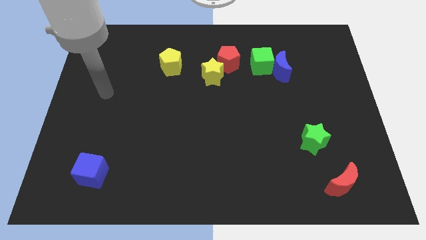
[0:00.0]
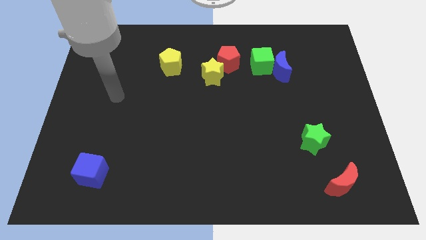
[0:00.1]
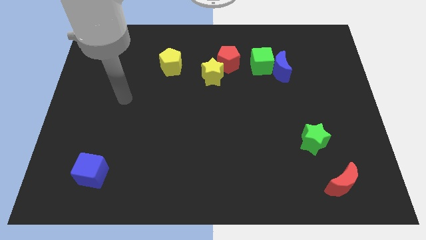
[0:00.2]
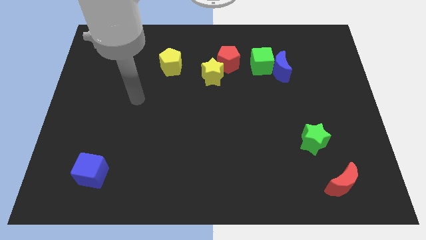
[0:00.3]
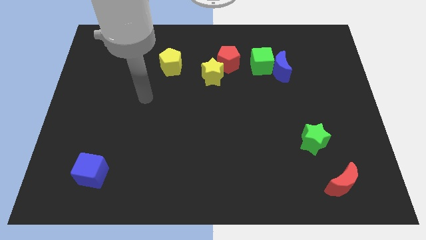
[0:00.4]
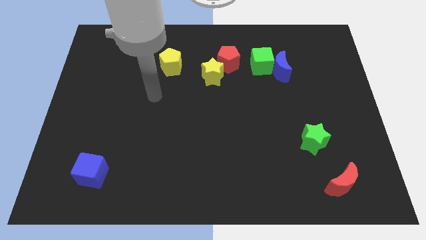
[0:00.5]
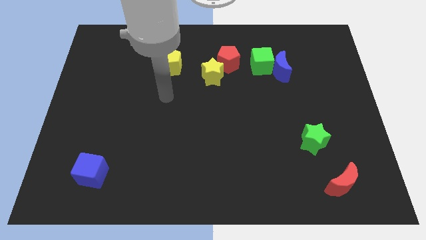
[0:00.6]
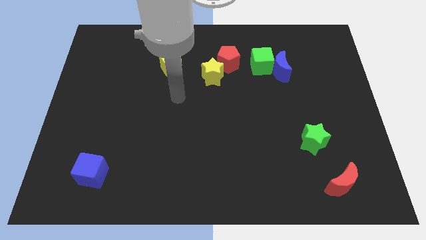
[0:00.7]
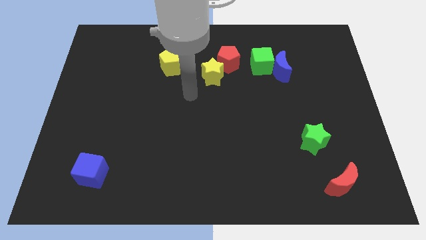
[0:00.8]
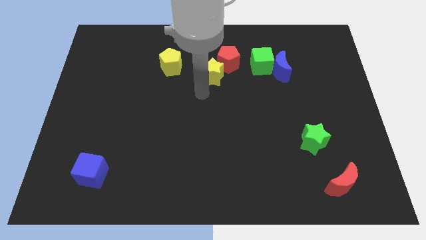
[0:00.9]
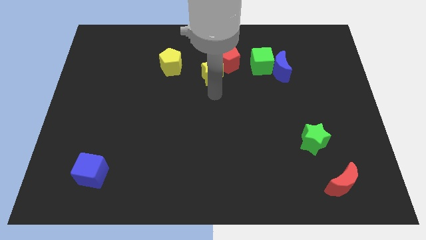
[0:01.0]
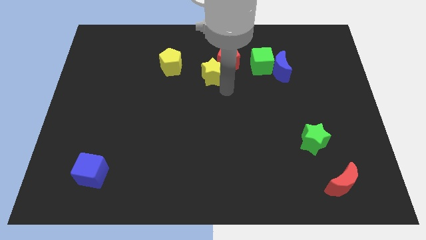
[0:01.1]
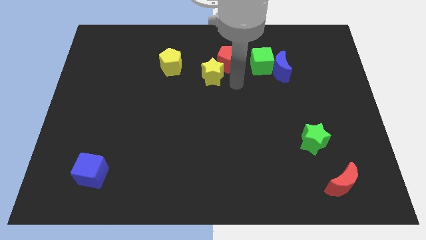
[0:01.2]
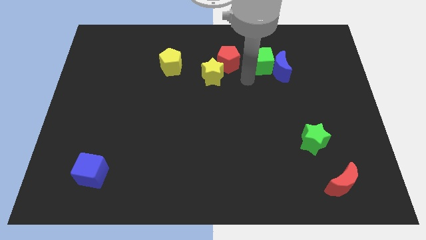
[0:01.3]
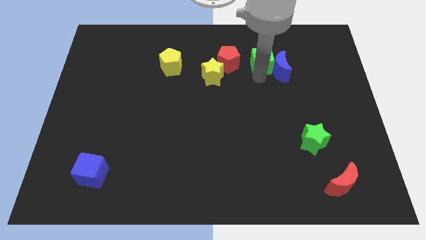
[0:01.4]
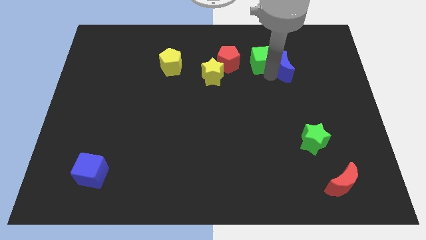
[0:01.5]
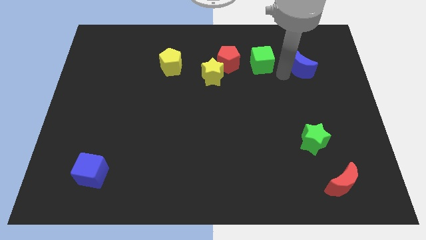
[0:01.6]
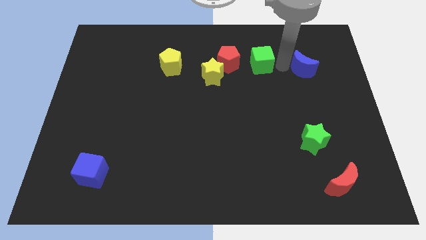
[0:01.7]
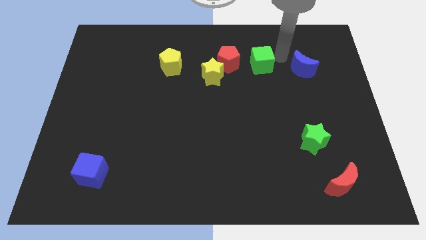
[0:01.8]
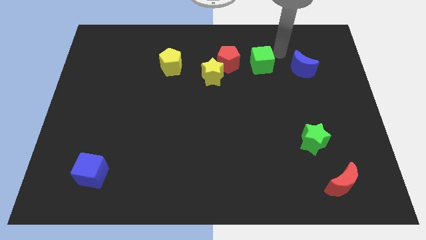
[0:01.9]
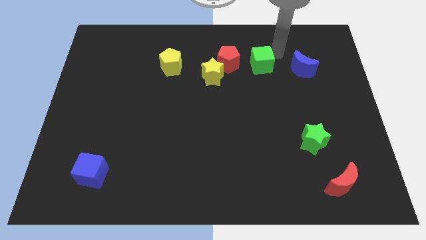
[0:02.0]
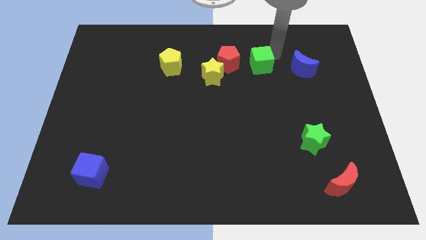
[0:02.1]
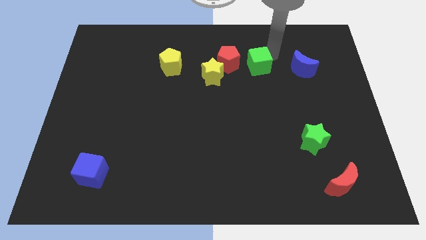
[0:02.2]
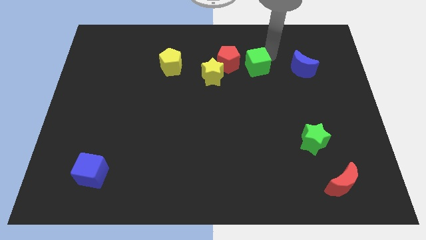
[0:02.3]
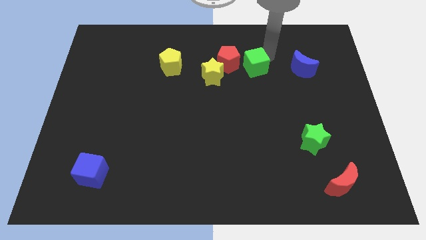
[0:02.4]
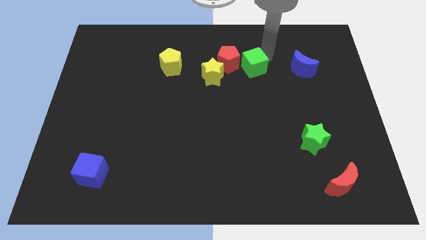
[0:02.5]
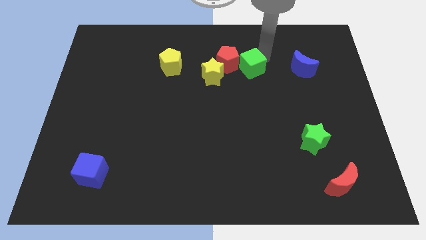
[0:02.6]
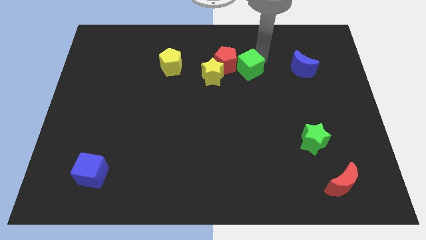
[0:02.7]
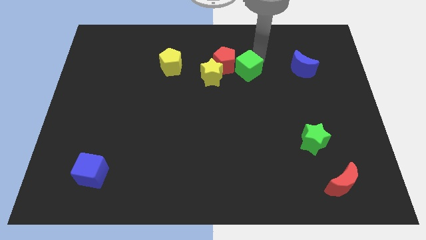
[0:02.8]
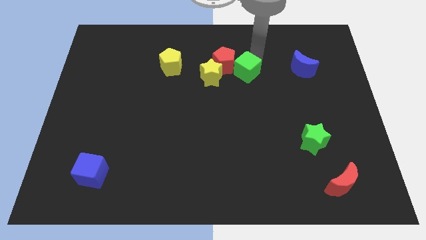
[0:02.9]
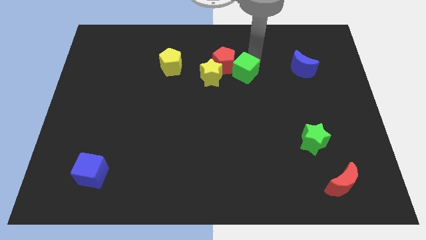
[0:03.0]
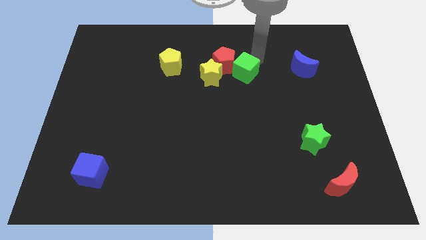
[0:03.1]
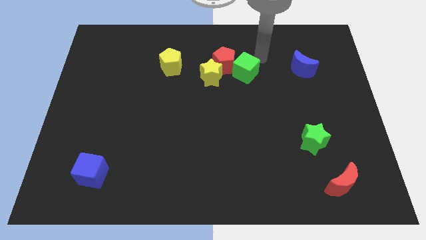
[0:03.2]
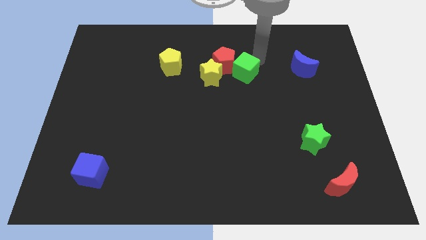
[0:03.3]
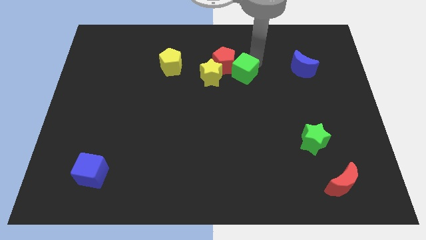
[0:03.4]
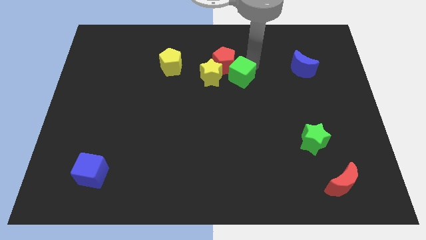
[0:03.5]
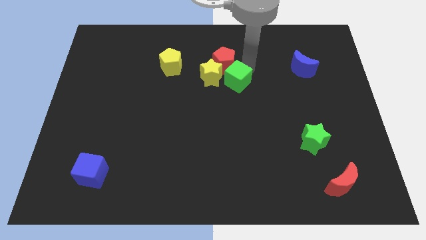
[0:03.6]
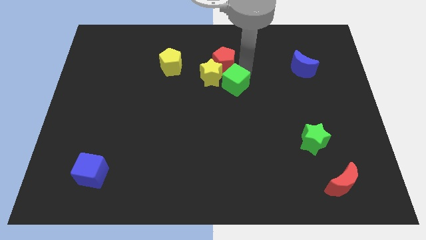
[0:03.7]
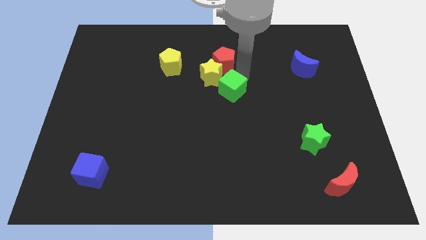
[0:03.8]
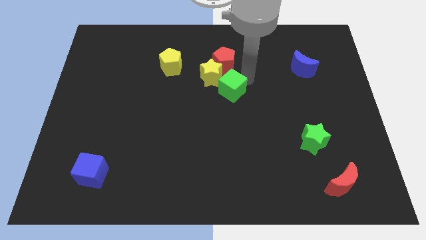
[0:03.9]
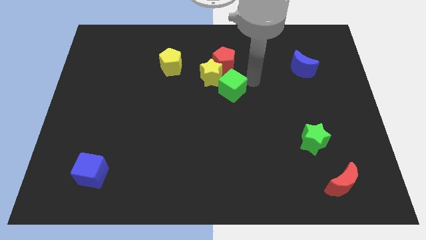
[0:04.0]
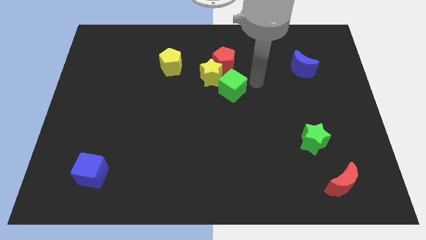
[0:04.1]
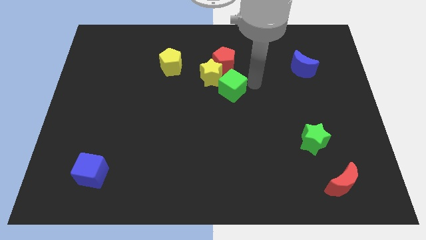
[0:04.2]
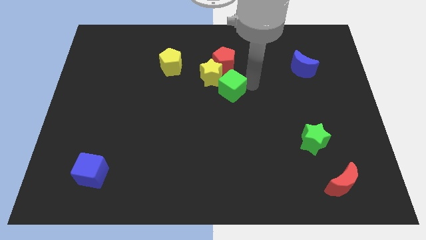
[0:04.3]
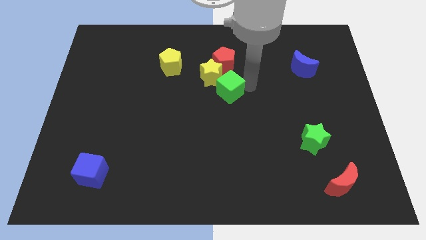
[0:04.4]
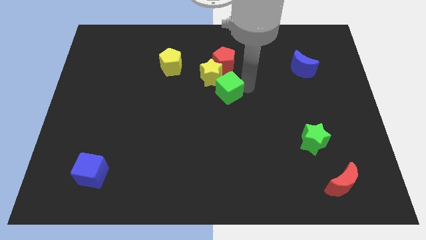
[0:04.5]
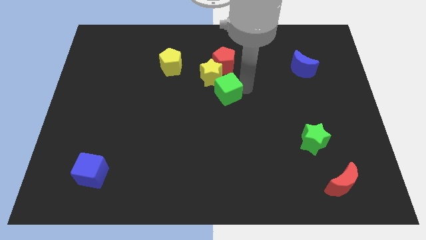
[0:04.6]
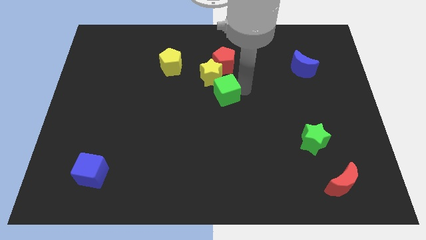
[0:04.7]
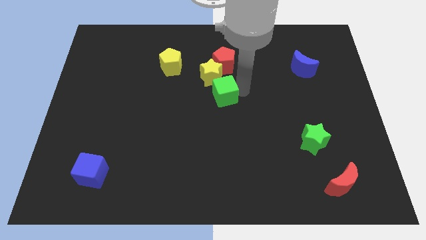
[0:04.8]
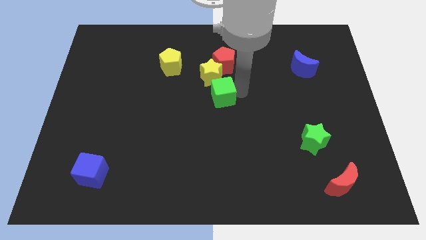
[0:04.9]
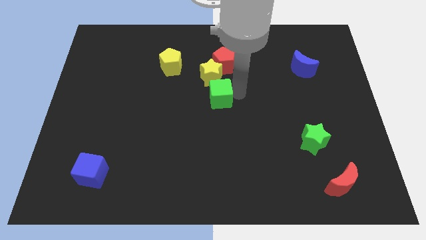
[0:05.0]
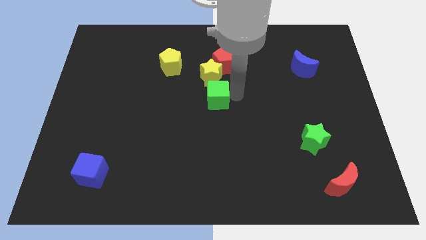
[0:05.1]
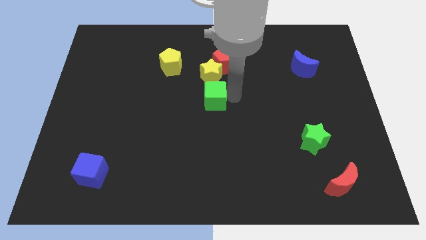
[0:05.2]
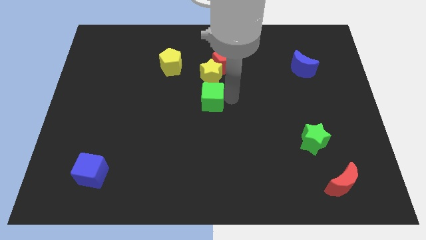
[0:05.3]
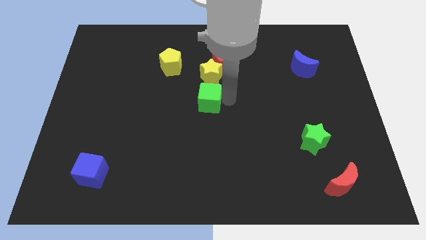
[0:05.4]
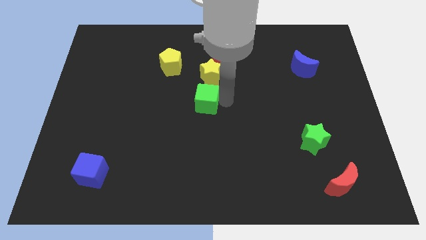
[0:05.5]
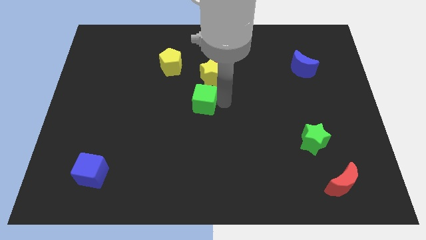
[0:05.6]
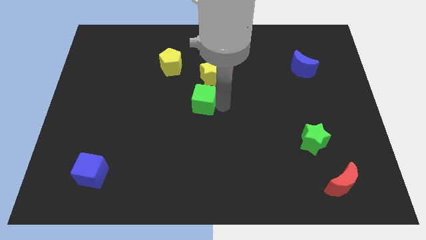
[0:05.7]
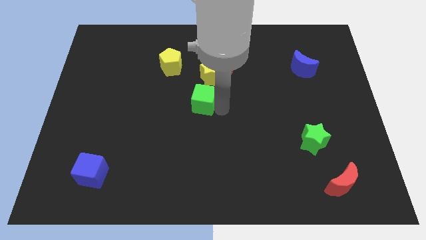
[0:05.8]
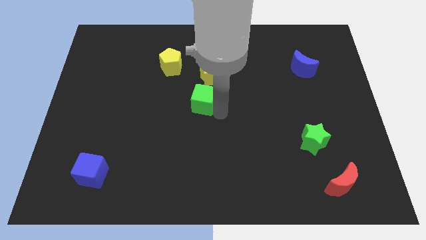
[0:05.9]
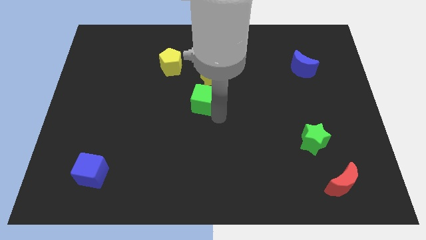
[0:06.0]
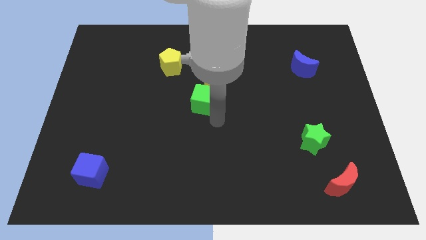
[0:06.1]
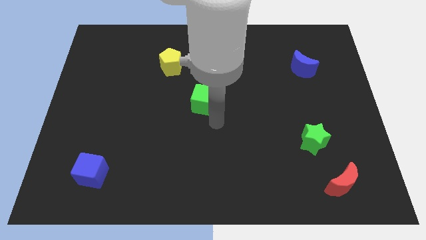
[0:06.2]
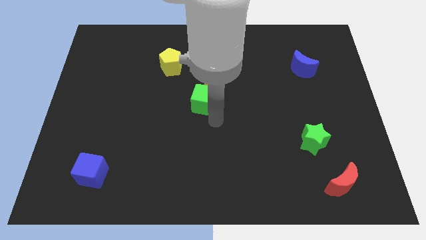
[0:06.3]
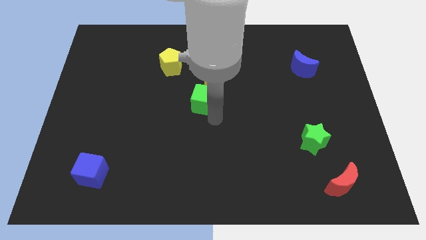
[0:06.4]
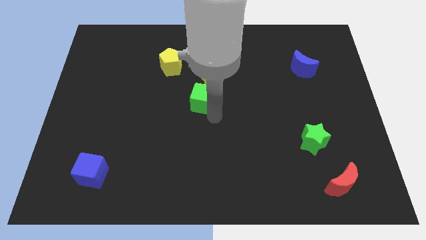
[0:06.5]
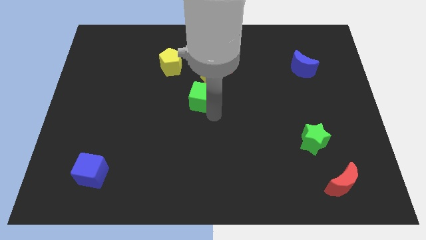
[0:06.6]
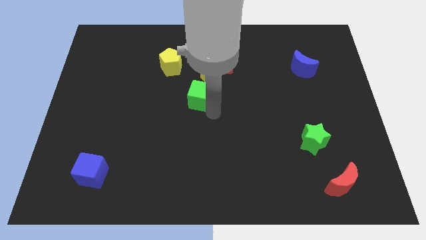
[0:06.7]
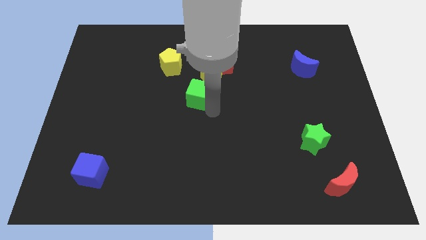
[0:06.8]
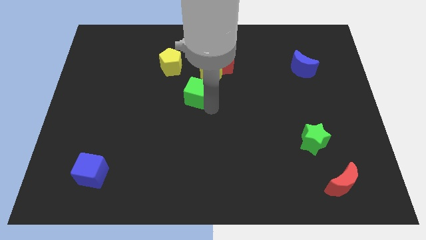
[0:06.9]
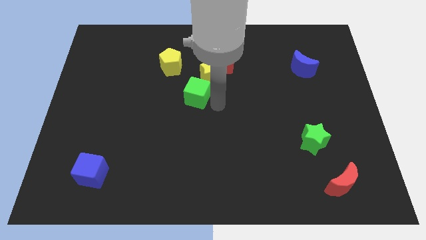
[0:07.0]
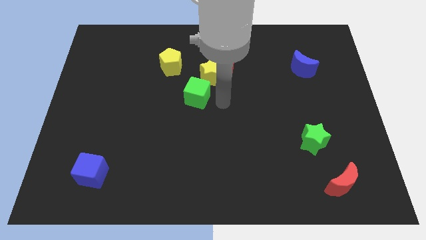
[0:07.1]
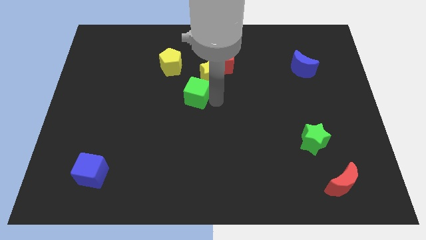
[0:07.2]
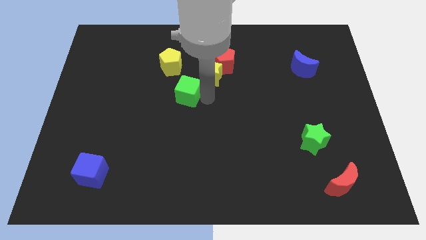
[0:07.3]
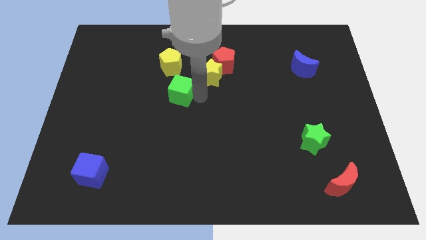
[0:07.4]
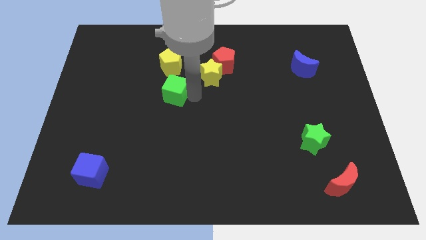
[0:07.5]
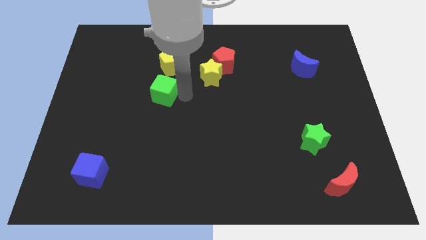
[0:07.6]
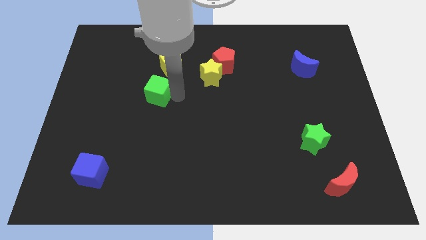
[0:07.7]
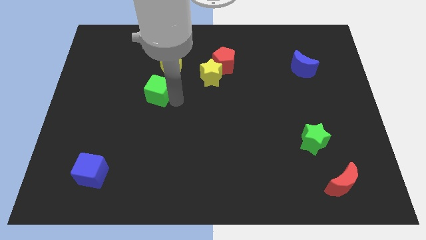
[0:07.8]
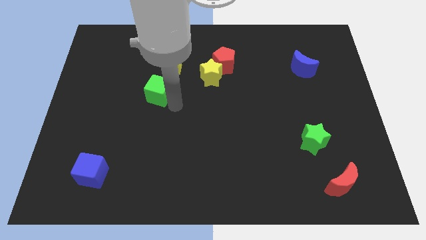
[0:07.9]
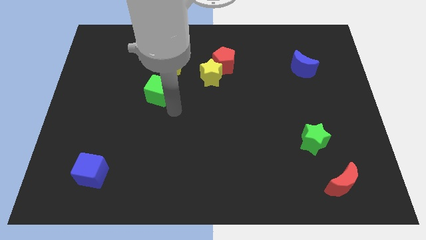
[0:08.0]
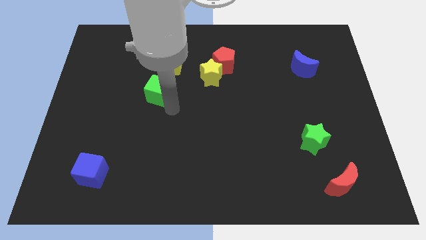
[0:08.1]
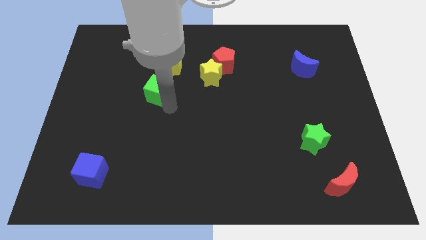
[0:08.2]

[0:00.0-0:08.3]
push the green cube to the bottom left side of the yellow pentagon
